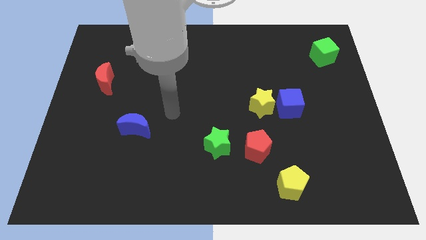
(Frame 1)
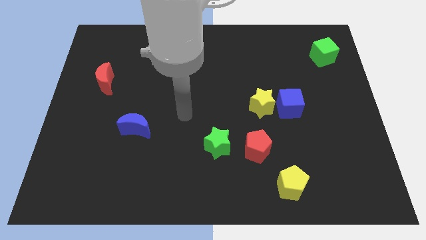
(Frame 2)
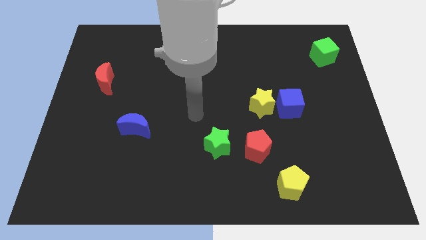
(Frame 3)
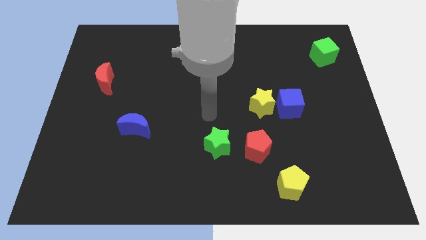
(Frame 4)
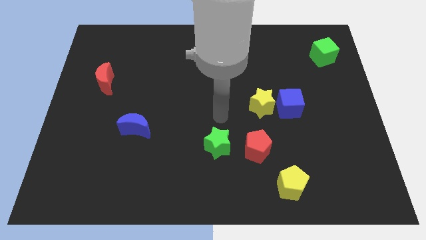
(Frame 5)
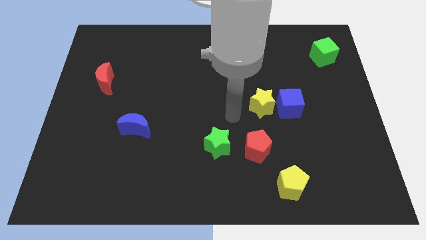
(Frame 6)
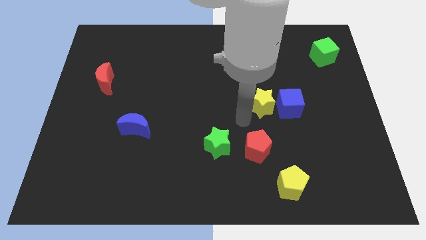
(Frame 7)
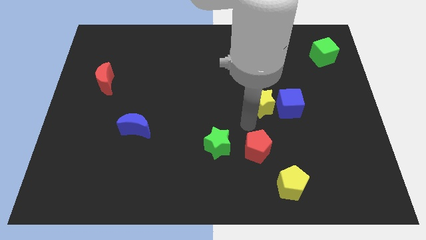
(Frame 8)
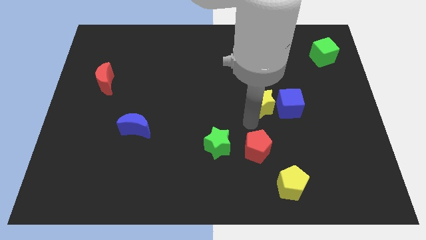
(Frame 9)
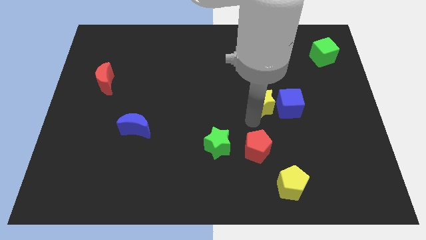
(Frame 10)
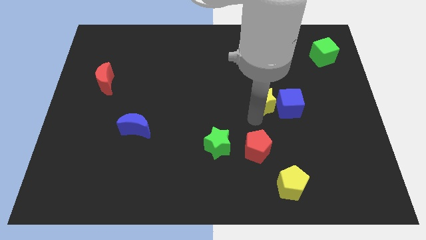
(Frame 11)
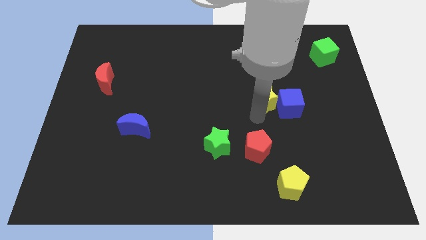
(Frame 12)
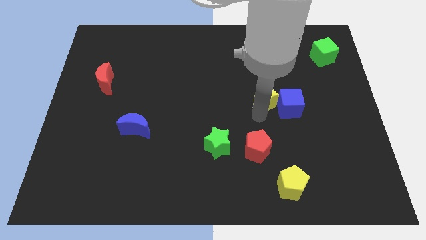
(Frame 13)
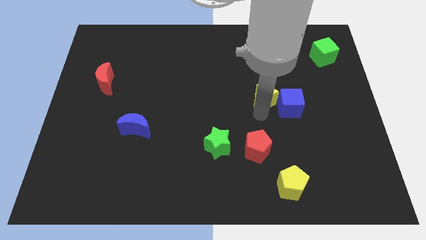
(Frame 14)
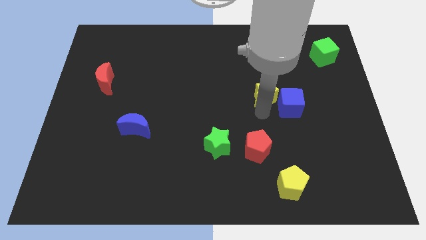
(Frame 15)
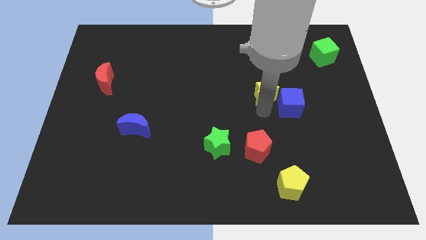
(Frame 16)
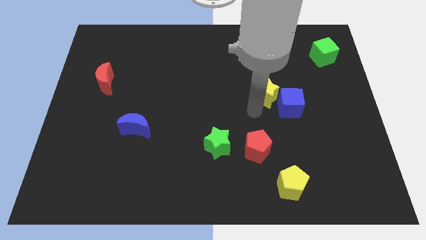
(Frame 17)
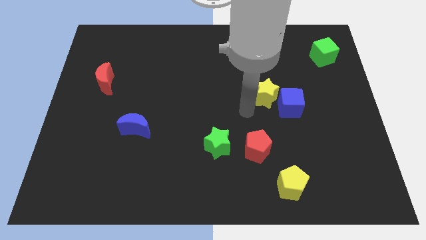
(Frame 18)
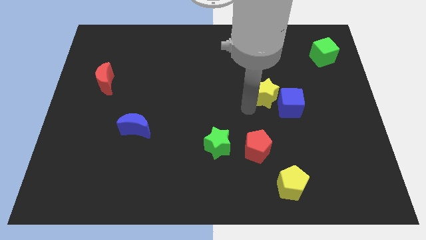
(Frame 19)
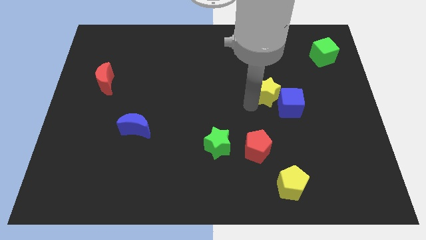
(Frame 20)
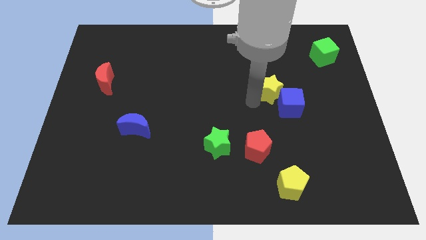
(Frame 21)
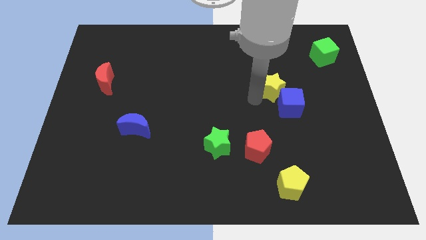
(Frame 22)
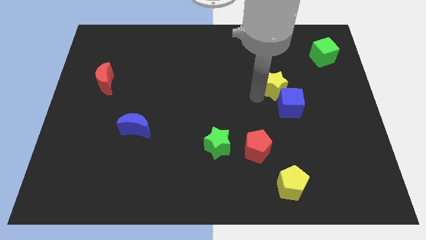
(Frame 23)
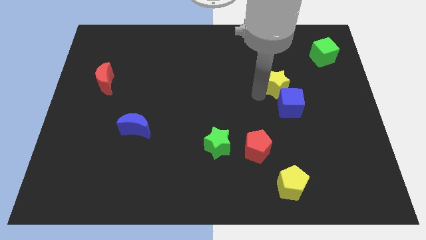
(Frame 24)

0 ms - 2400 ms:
slide the yellow star diagonally upwards and right slightly

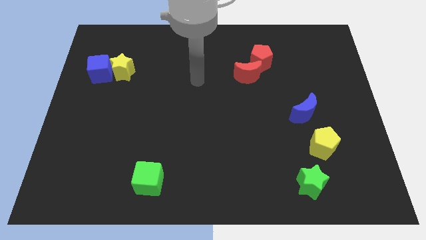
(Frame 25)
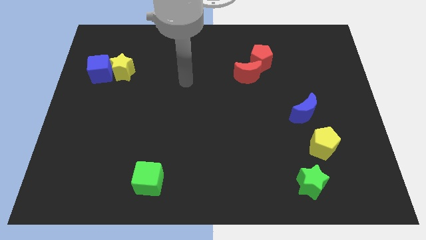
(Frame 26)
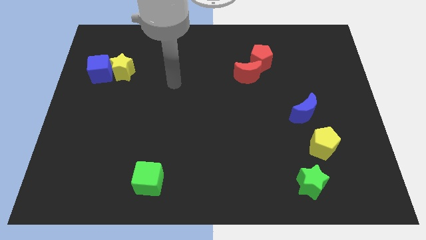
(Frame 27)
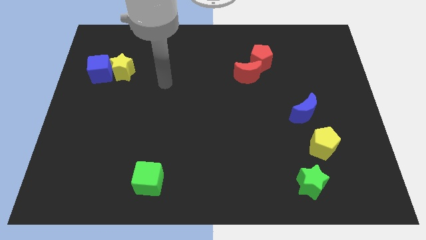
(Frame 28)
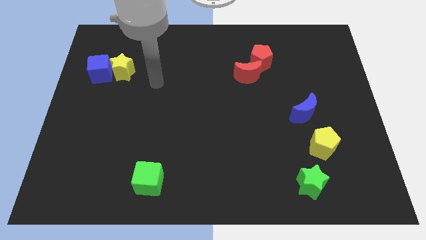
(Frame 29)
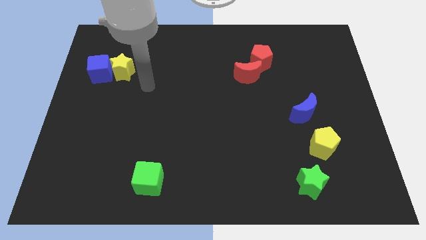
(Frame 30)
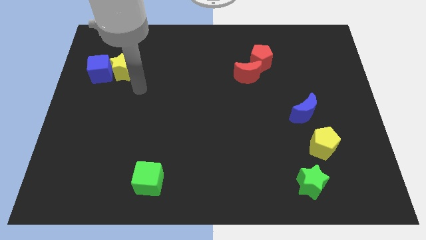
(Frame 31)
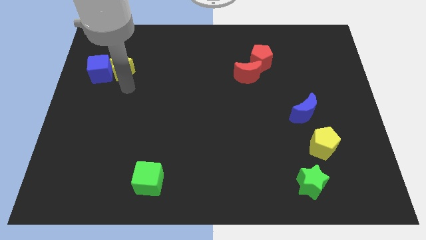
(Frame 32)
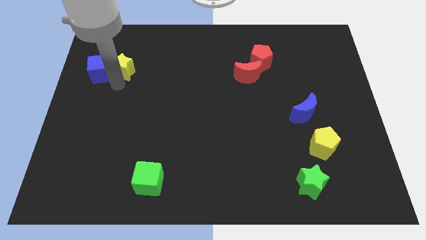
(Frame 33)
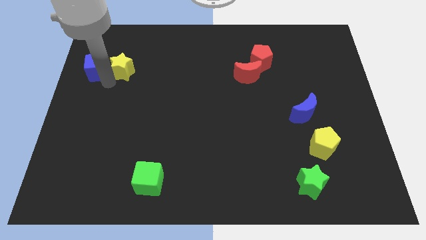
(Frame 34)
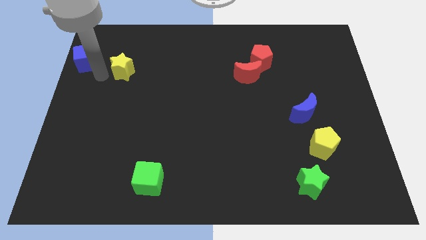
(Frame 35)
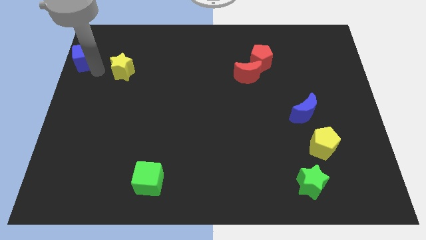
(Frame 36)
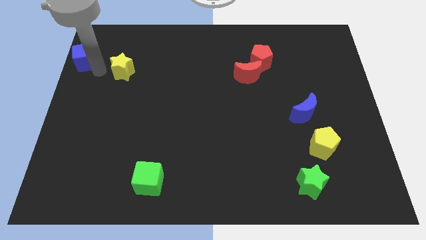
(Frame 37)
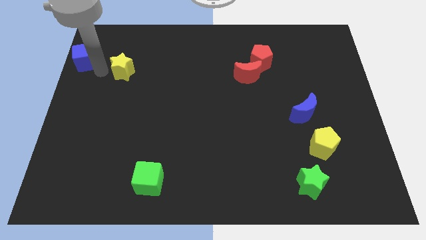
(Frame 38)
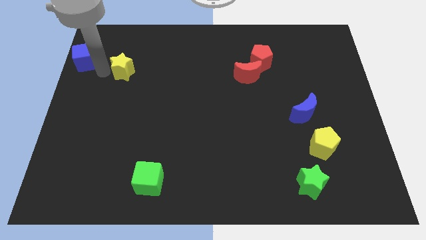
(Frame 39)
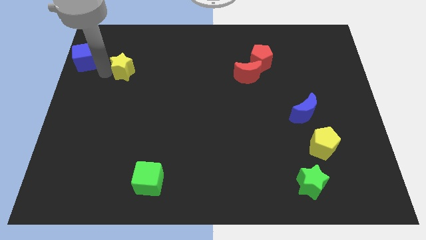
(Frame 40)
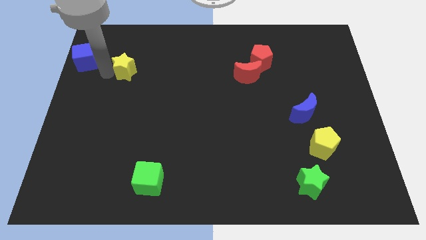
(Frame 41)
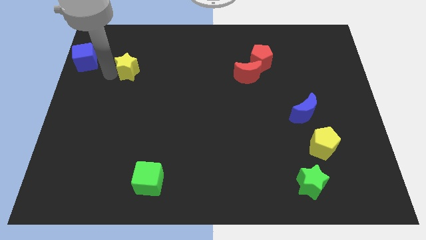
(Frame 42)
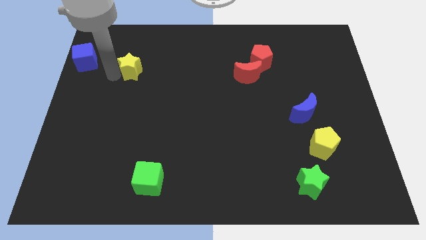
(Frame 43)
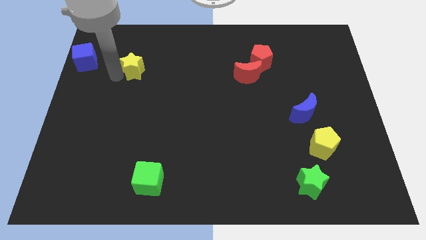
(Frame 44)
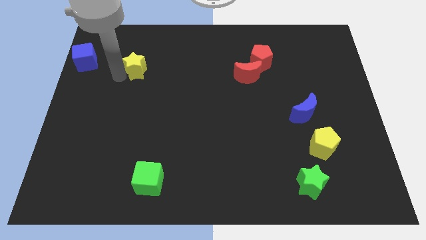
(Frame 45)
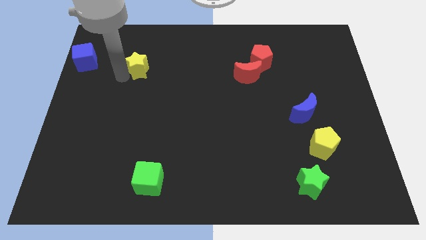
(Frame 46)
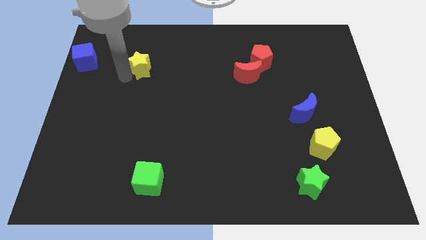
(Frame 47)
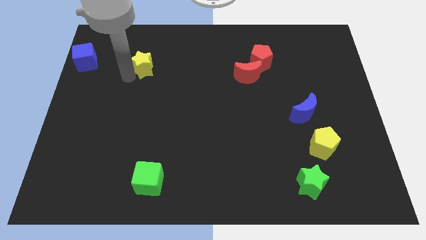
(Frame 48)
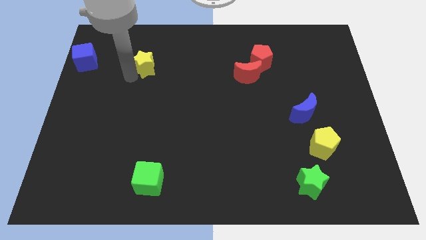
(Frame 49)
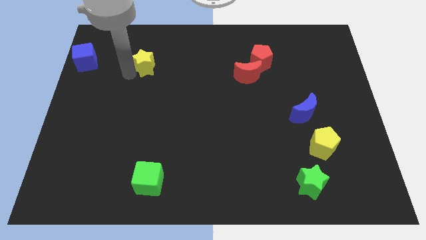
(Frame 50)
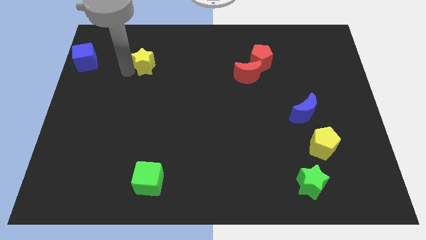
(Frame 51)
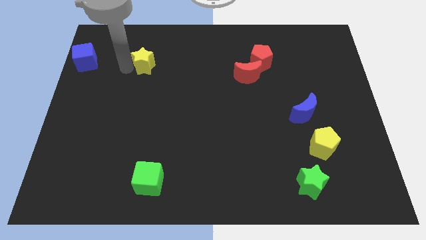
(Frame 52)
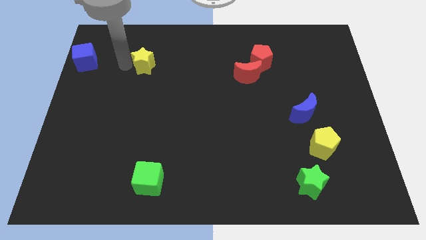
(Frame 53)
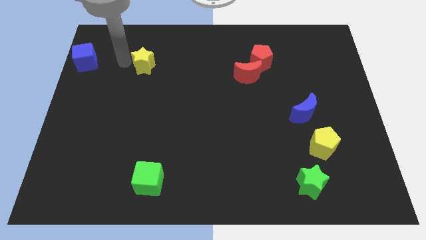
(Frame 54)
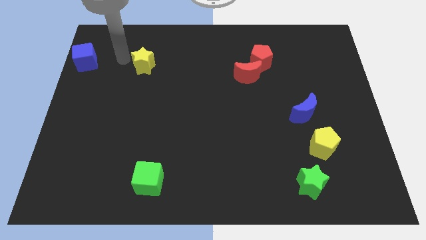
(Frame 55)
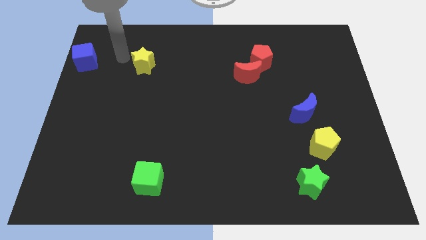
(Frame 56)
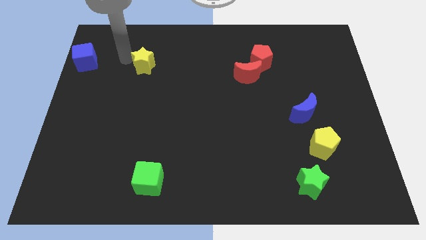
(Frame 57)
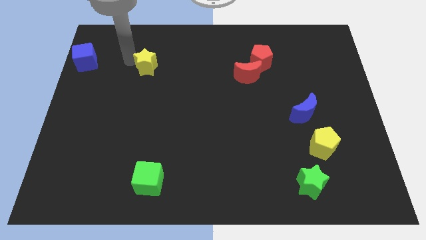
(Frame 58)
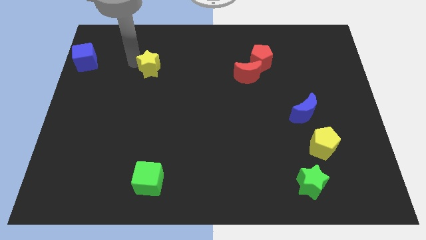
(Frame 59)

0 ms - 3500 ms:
move the yellow star slightly to the right

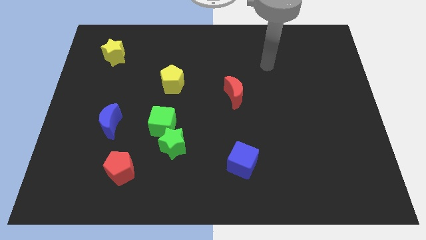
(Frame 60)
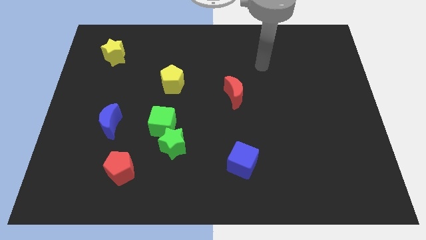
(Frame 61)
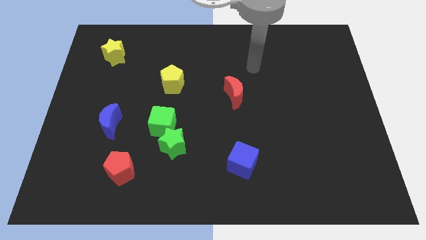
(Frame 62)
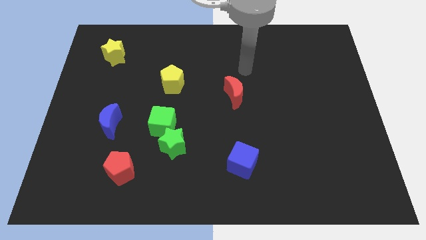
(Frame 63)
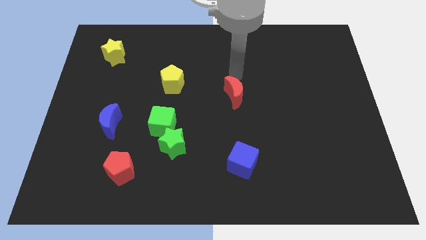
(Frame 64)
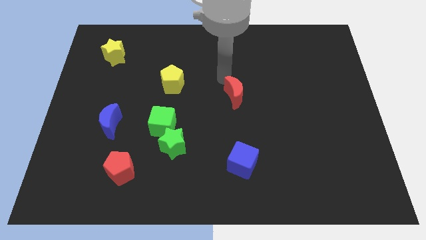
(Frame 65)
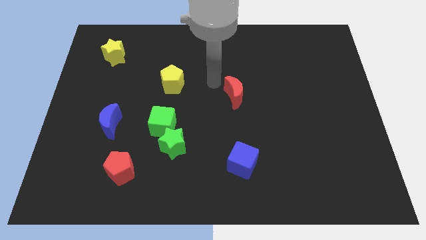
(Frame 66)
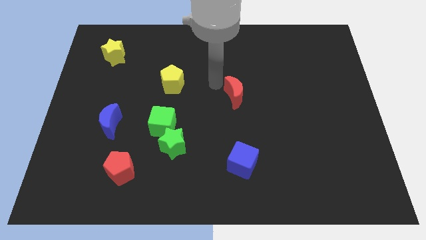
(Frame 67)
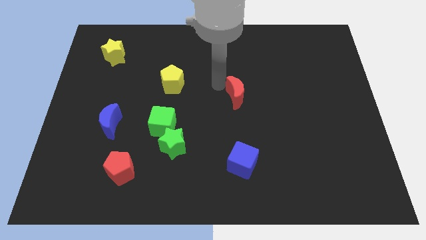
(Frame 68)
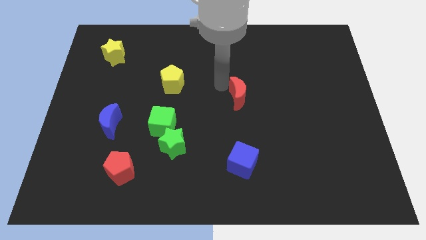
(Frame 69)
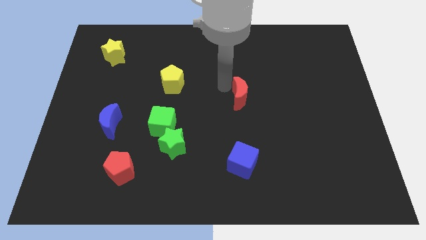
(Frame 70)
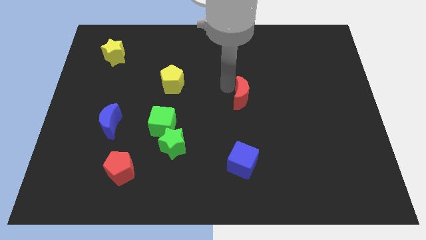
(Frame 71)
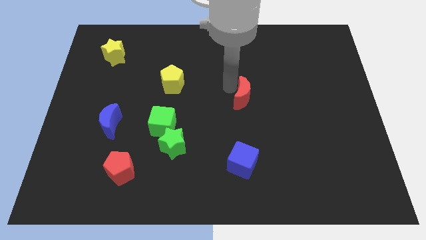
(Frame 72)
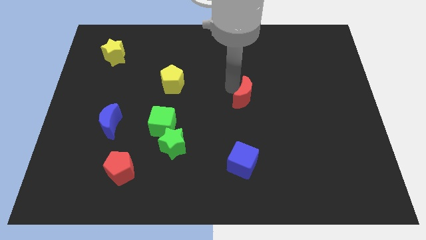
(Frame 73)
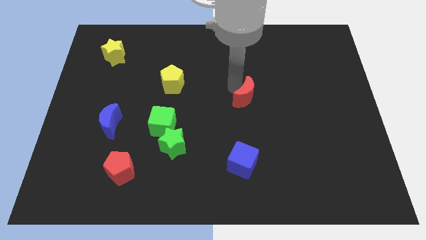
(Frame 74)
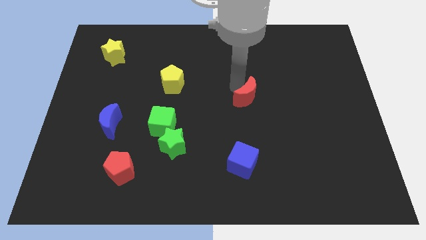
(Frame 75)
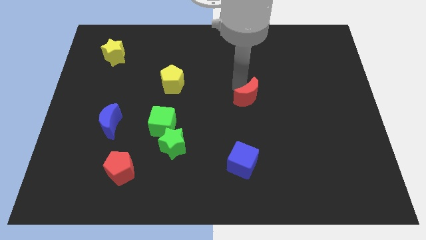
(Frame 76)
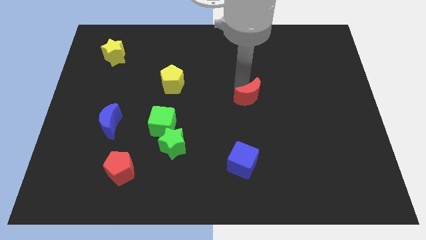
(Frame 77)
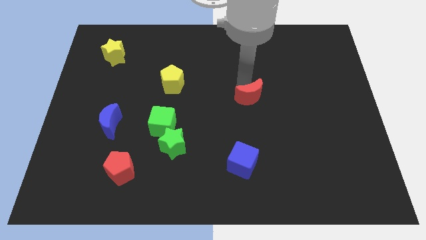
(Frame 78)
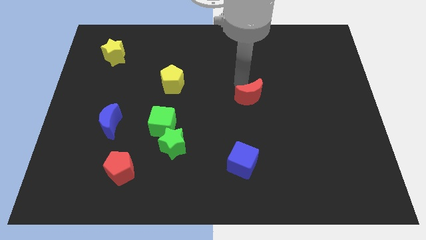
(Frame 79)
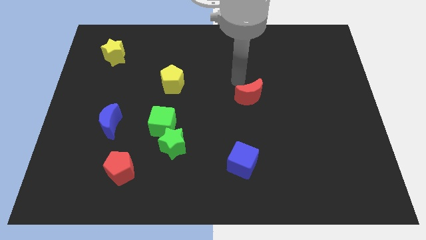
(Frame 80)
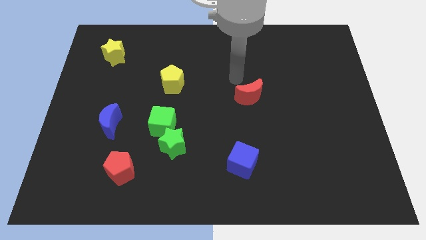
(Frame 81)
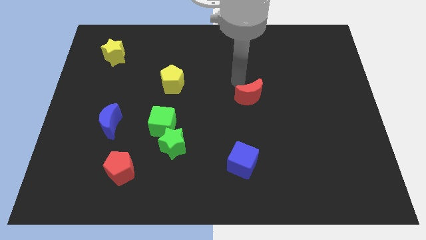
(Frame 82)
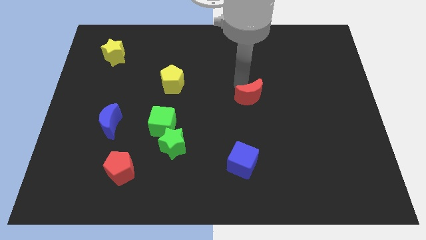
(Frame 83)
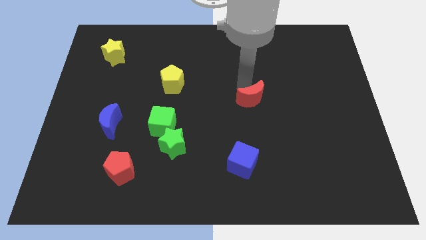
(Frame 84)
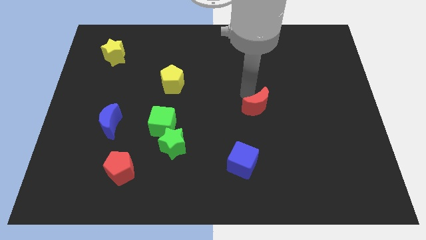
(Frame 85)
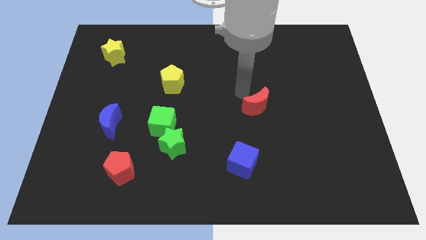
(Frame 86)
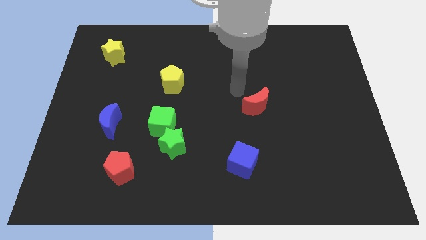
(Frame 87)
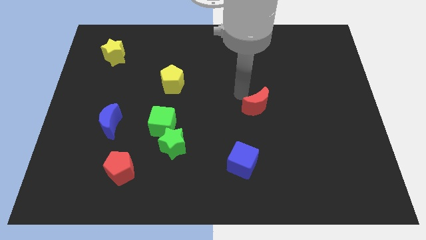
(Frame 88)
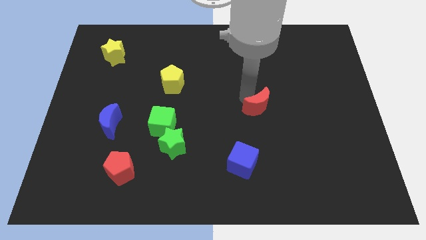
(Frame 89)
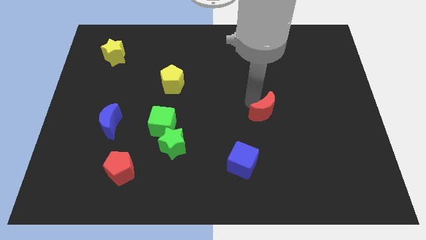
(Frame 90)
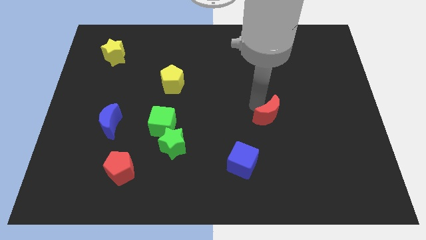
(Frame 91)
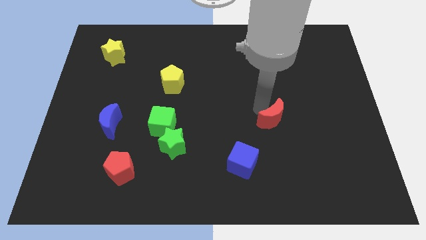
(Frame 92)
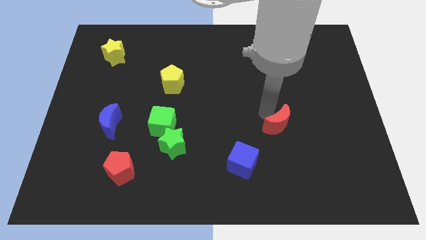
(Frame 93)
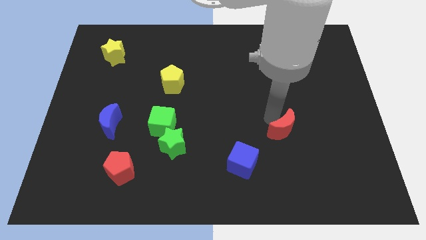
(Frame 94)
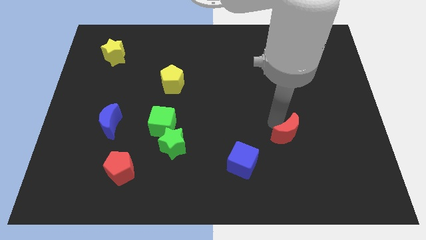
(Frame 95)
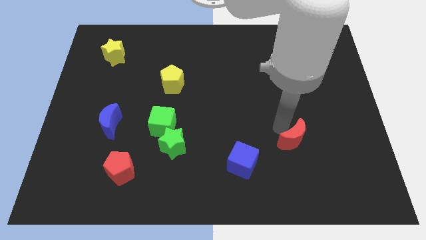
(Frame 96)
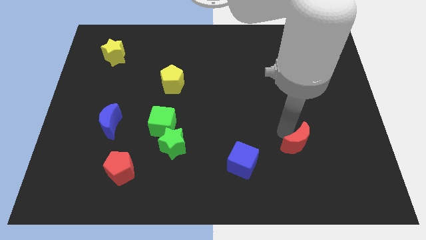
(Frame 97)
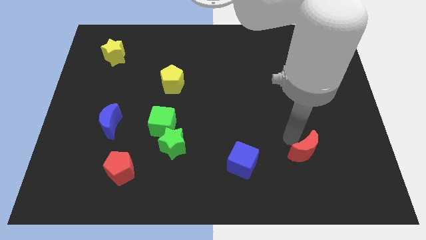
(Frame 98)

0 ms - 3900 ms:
move the red moon downwards and right
